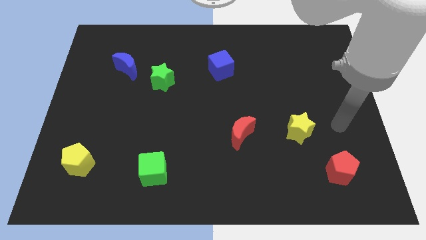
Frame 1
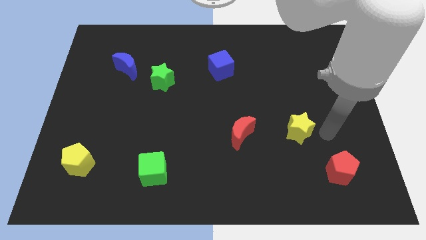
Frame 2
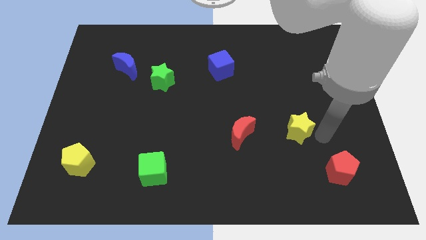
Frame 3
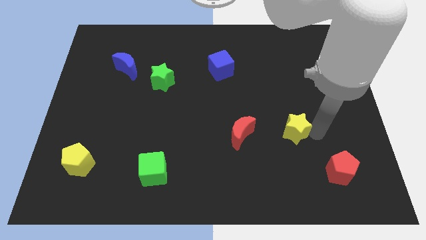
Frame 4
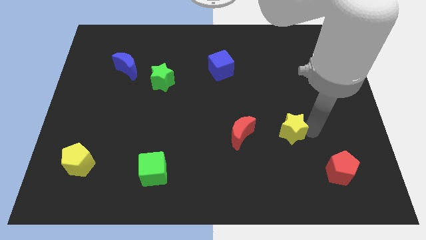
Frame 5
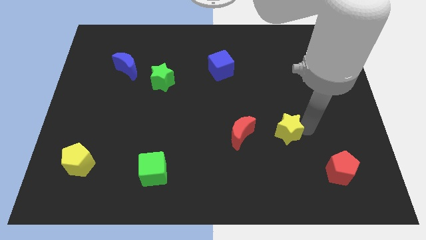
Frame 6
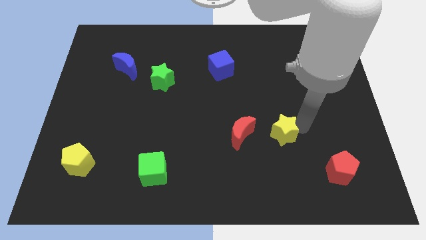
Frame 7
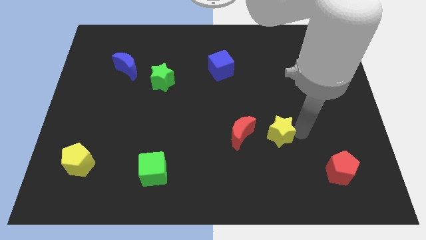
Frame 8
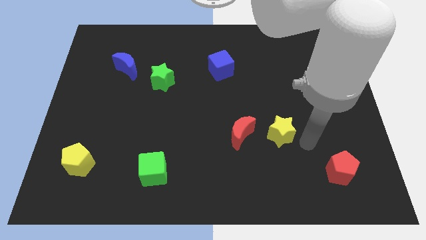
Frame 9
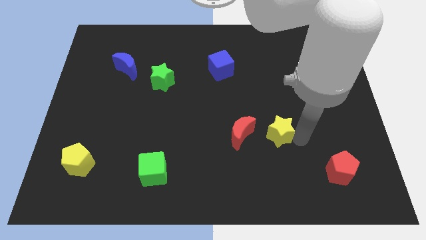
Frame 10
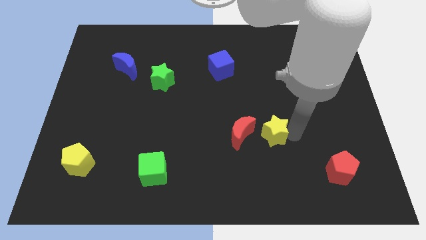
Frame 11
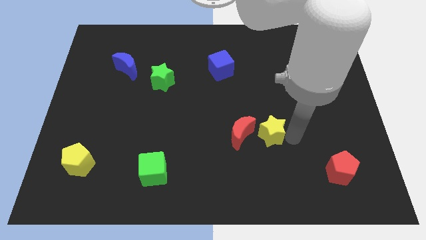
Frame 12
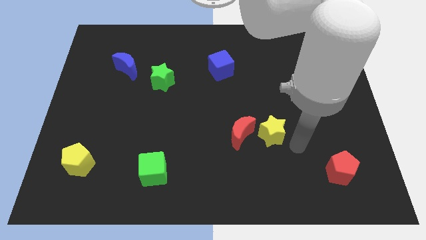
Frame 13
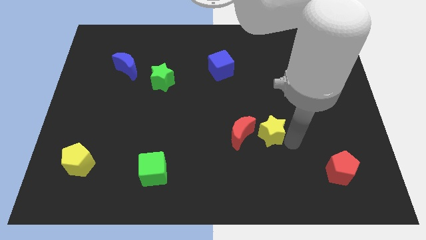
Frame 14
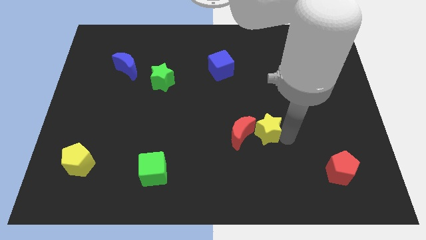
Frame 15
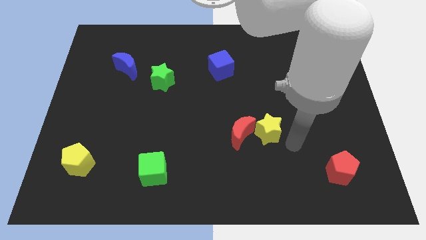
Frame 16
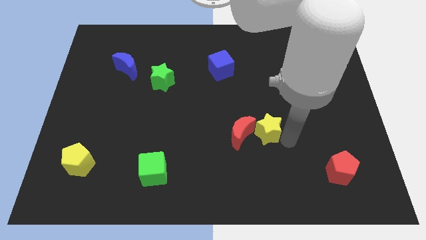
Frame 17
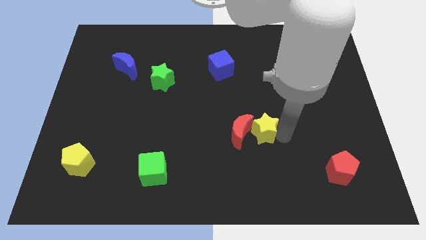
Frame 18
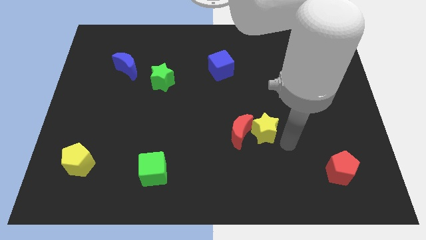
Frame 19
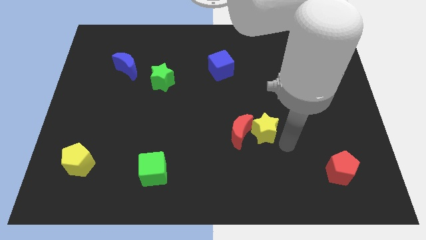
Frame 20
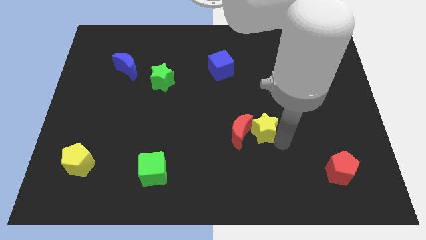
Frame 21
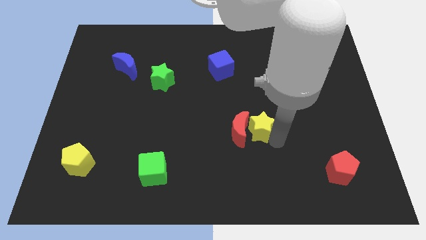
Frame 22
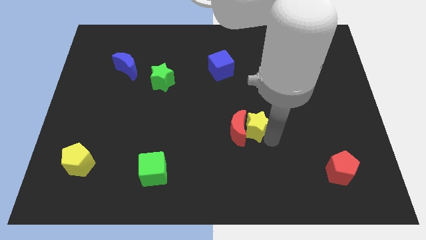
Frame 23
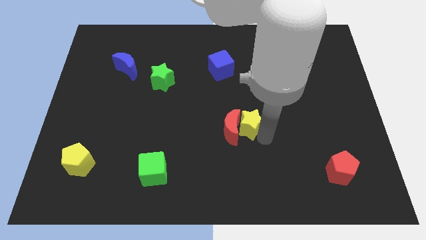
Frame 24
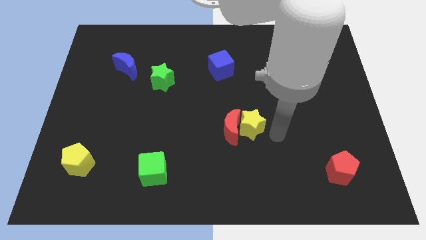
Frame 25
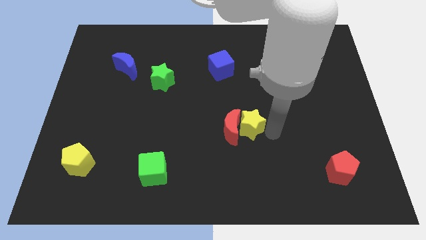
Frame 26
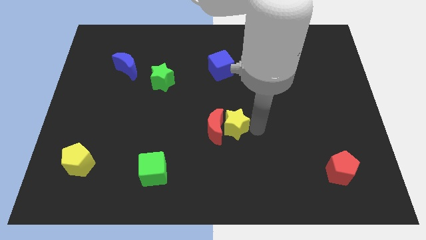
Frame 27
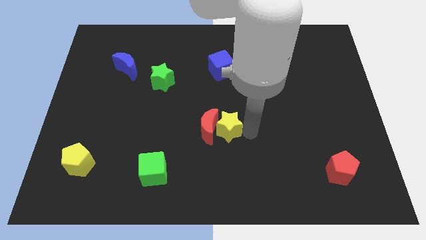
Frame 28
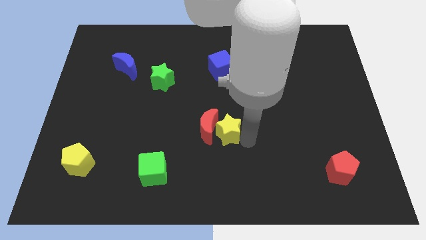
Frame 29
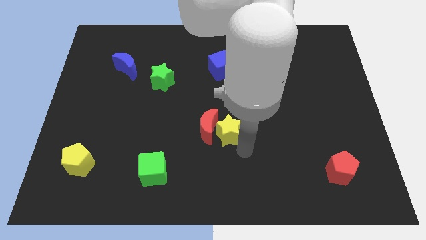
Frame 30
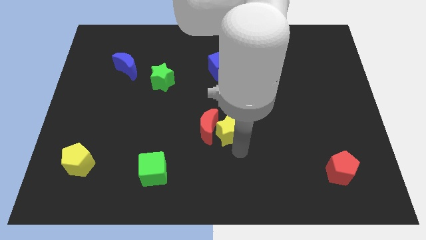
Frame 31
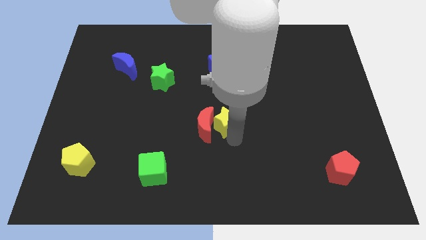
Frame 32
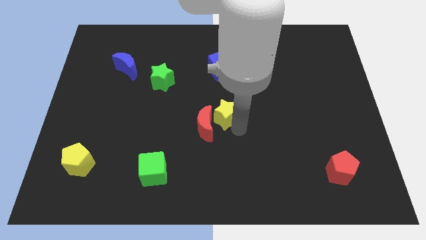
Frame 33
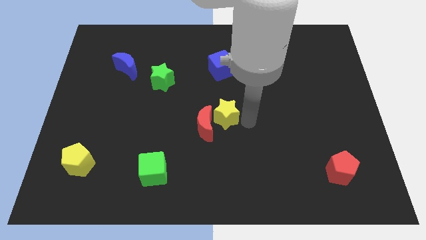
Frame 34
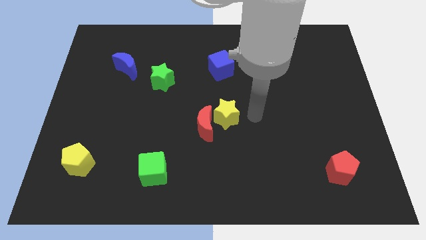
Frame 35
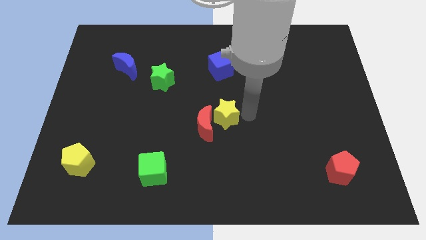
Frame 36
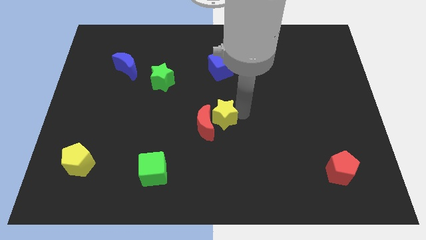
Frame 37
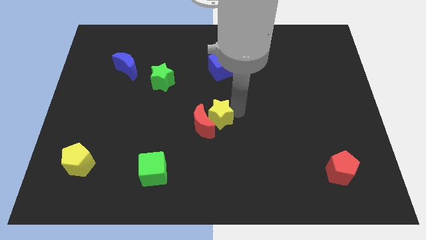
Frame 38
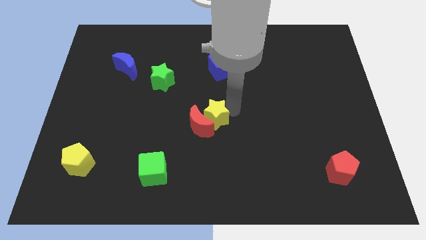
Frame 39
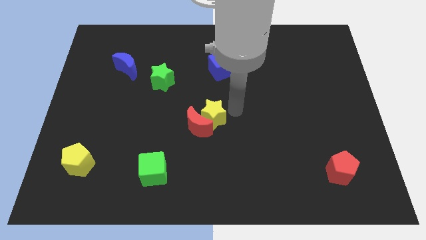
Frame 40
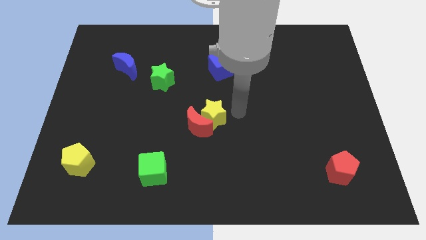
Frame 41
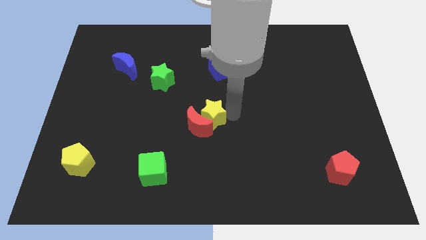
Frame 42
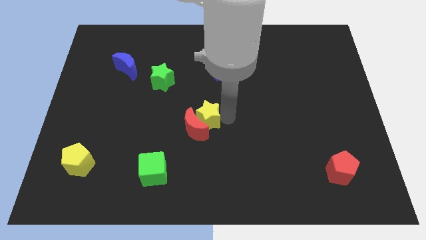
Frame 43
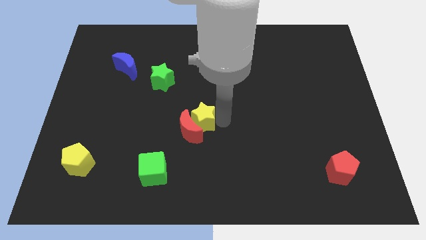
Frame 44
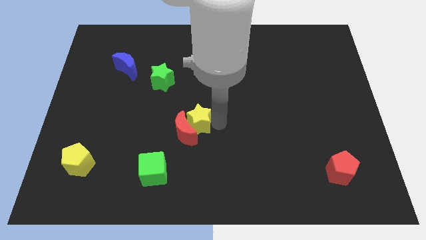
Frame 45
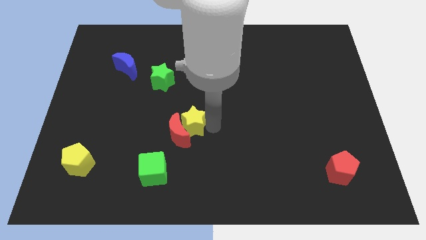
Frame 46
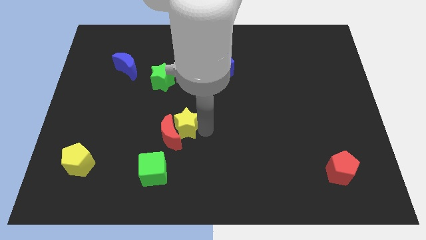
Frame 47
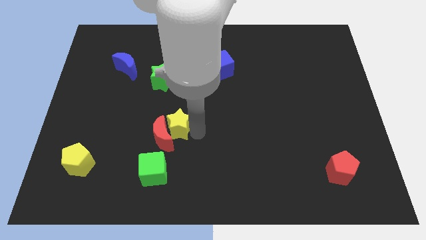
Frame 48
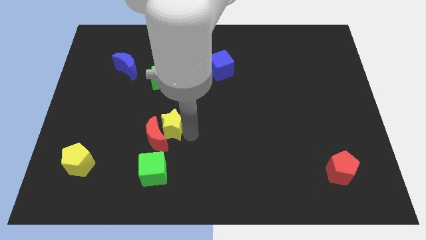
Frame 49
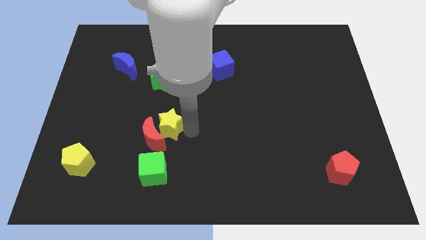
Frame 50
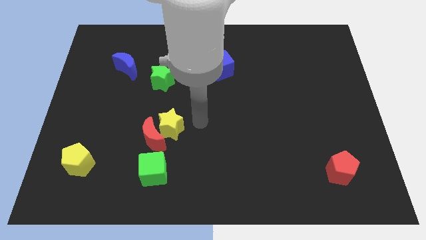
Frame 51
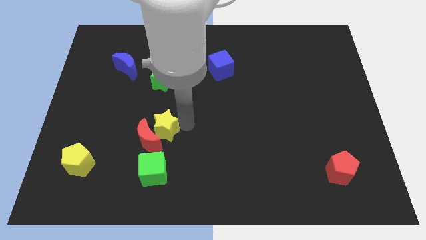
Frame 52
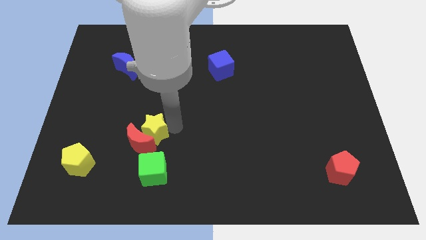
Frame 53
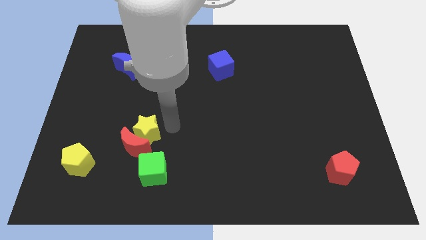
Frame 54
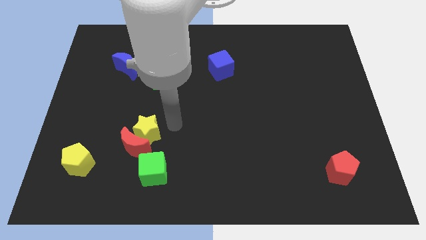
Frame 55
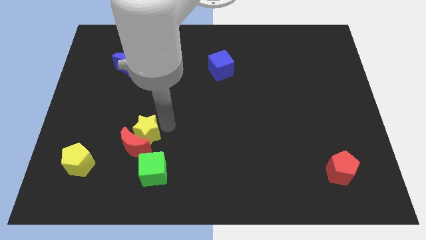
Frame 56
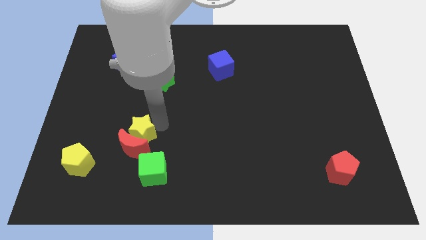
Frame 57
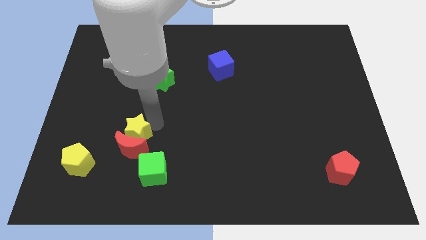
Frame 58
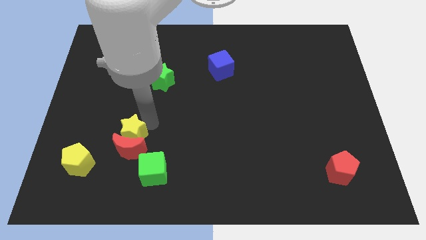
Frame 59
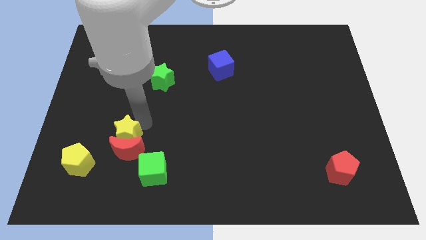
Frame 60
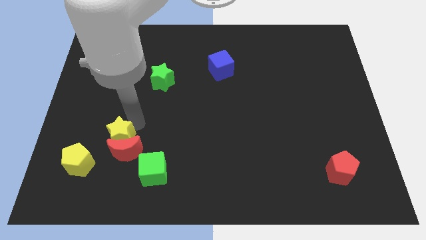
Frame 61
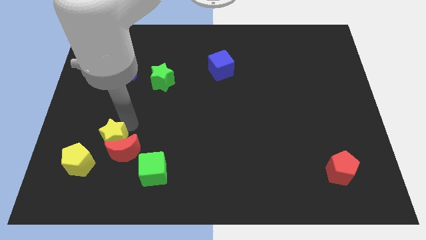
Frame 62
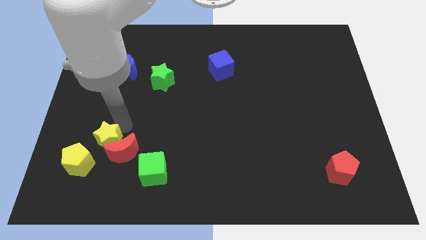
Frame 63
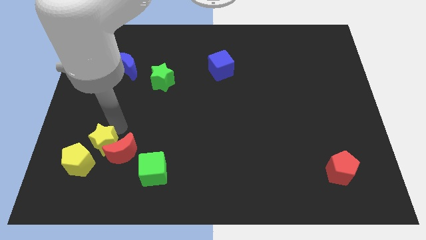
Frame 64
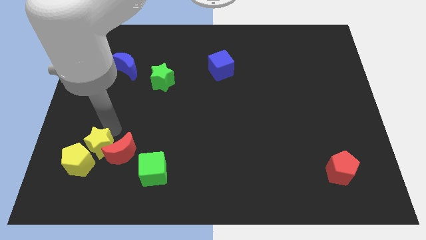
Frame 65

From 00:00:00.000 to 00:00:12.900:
put the yellow star next to the yellow pentagon
